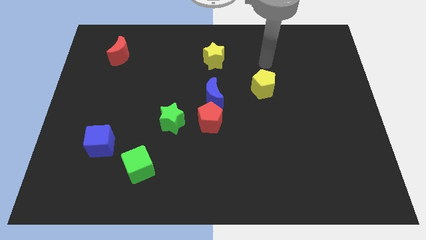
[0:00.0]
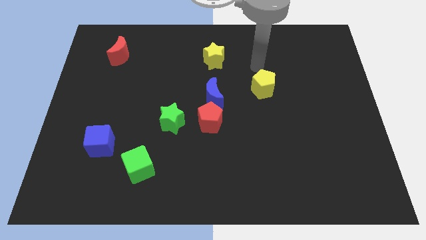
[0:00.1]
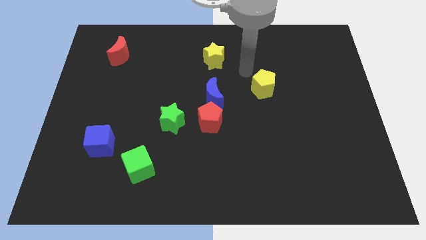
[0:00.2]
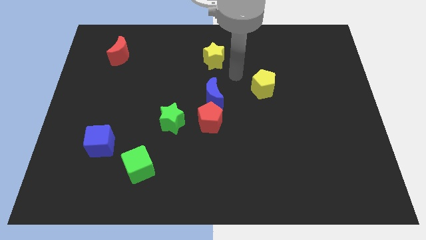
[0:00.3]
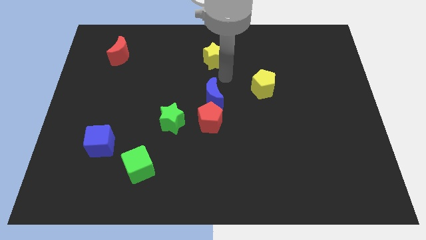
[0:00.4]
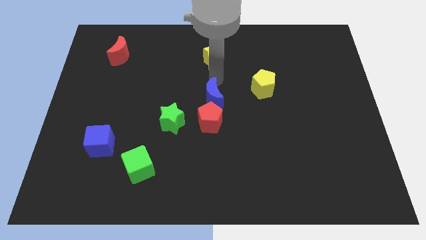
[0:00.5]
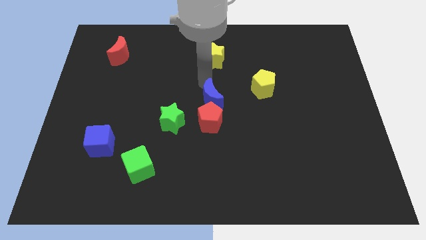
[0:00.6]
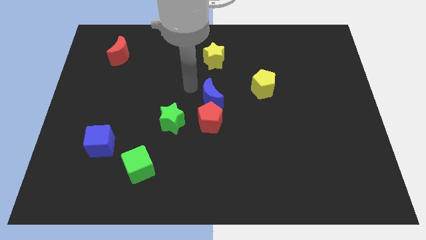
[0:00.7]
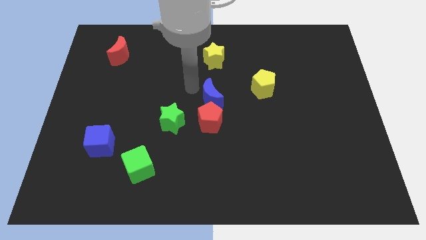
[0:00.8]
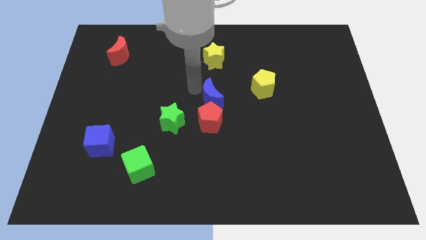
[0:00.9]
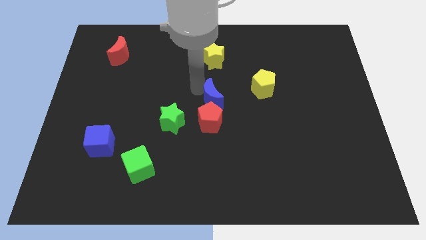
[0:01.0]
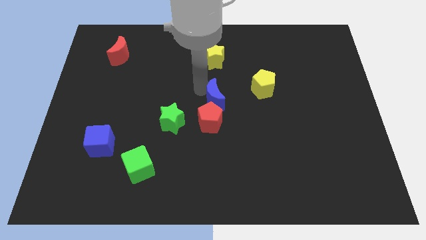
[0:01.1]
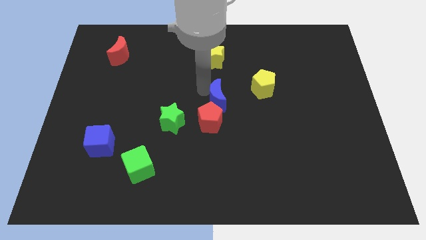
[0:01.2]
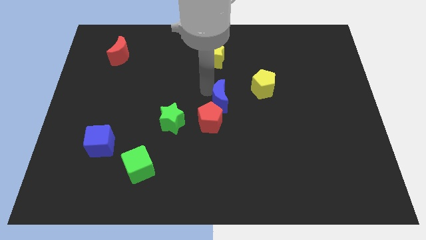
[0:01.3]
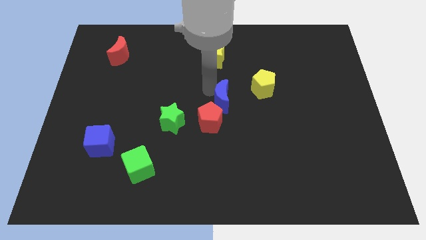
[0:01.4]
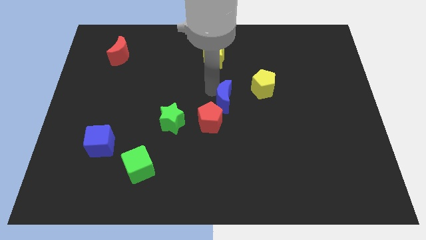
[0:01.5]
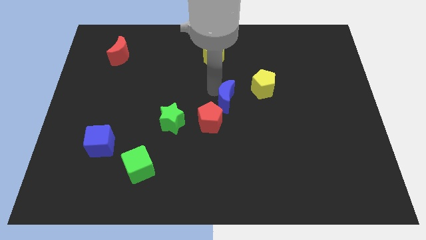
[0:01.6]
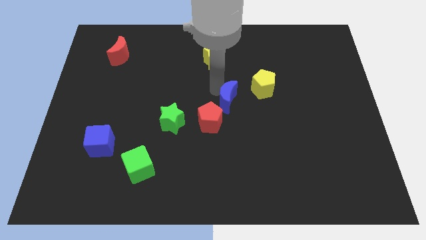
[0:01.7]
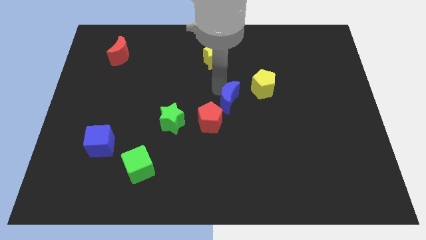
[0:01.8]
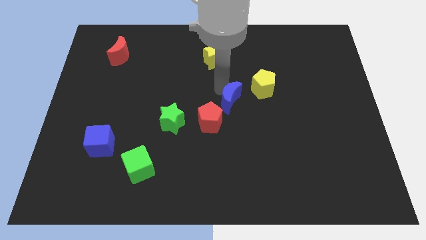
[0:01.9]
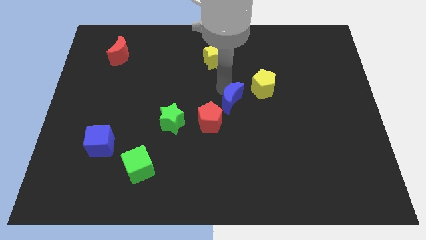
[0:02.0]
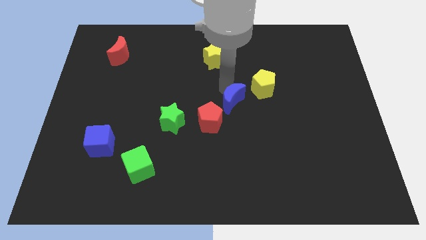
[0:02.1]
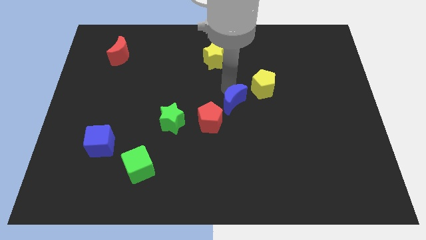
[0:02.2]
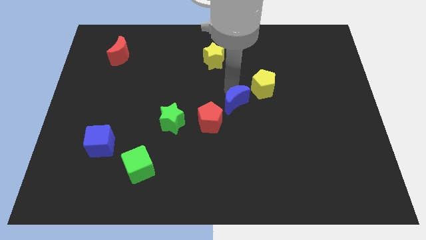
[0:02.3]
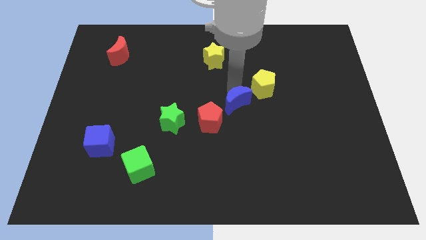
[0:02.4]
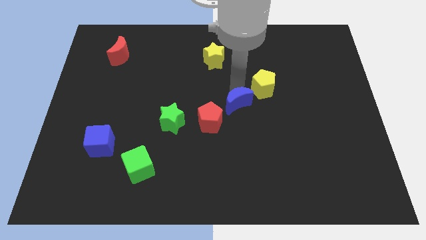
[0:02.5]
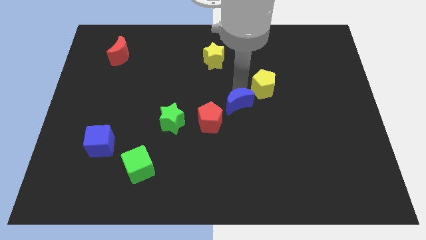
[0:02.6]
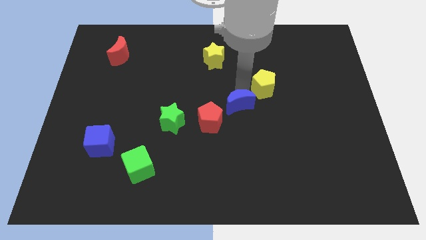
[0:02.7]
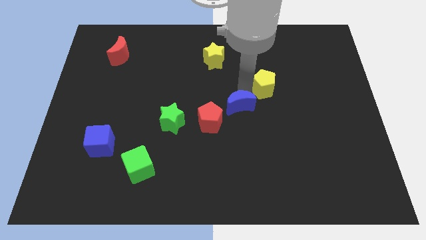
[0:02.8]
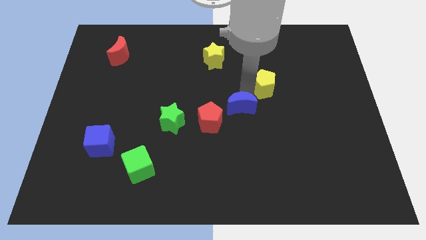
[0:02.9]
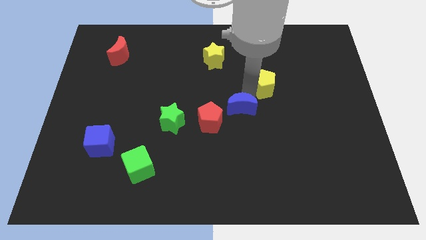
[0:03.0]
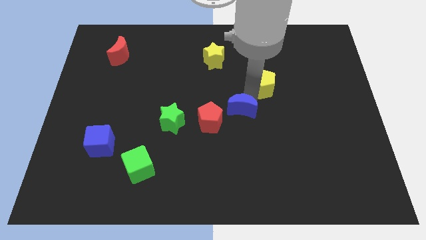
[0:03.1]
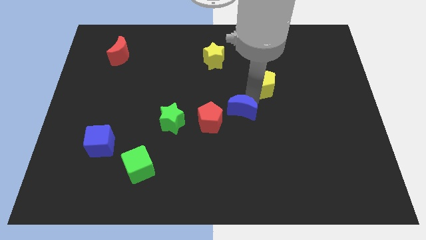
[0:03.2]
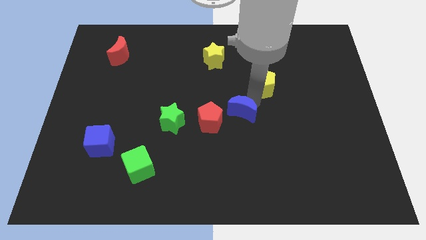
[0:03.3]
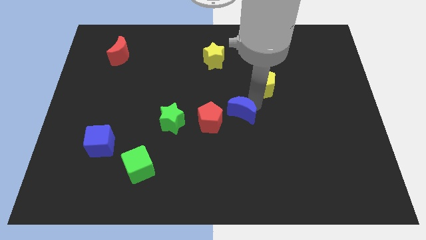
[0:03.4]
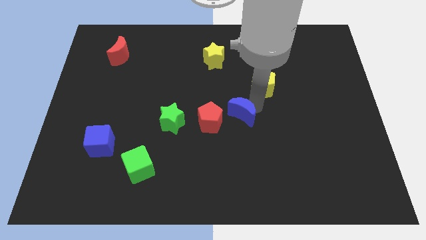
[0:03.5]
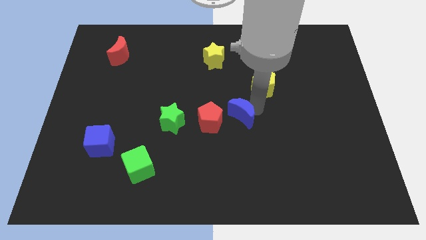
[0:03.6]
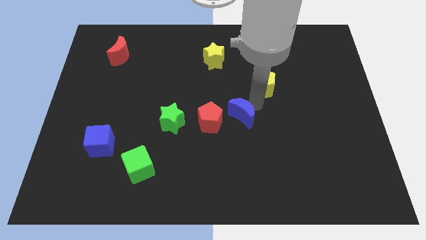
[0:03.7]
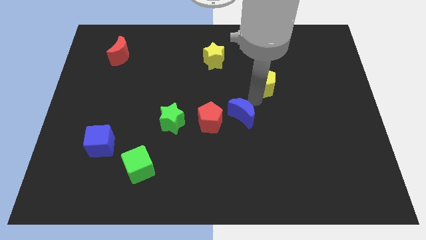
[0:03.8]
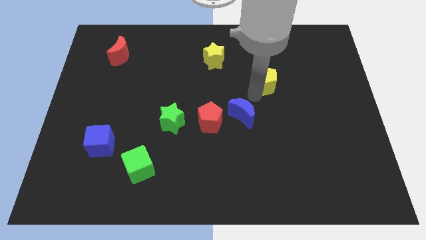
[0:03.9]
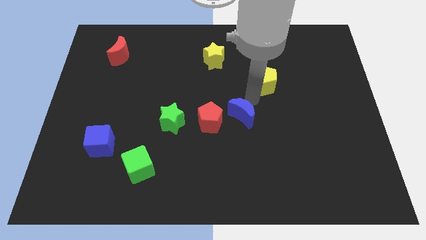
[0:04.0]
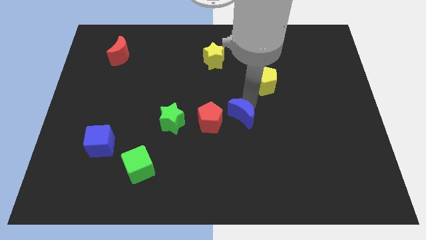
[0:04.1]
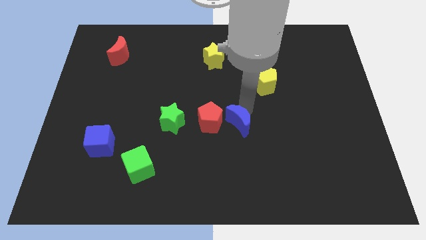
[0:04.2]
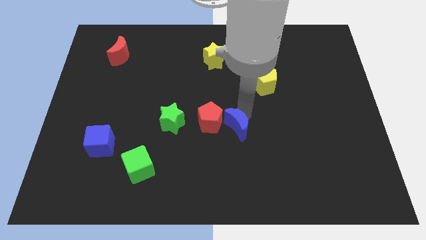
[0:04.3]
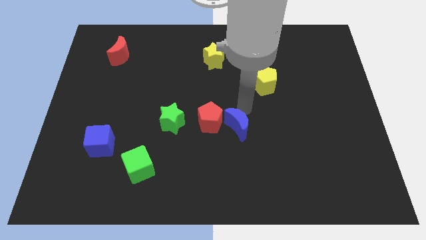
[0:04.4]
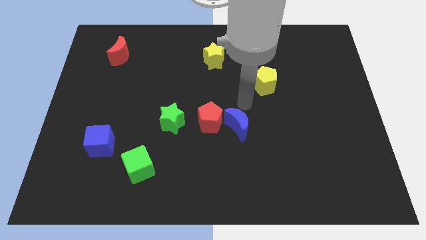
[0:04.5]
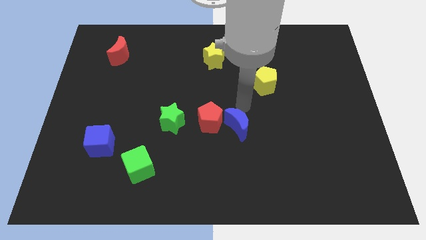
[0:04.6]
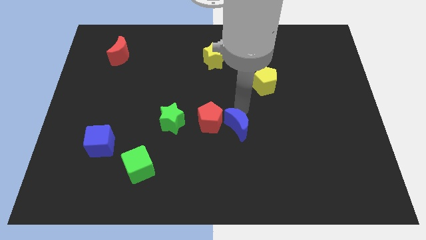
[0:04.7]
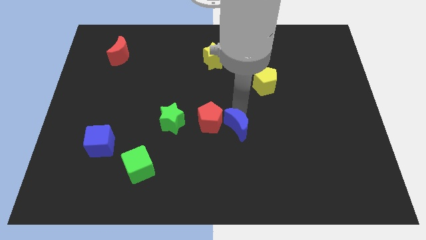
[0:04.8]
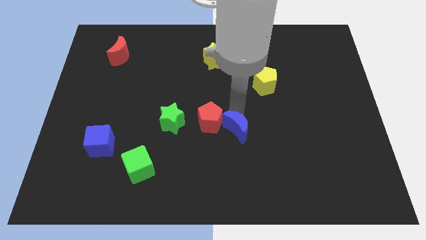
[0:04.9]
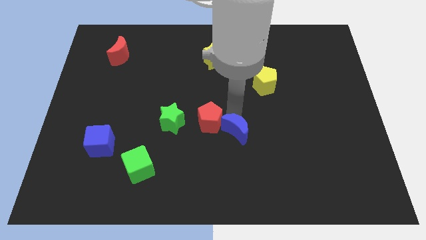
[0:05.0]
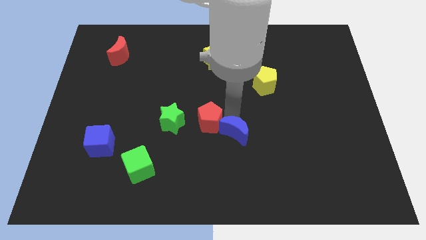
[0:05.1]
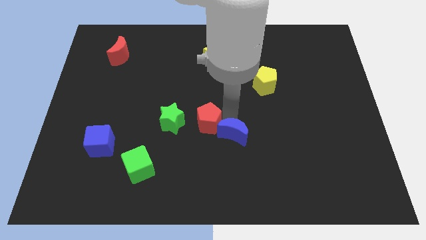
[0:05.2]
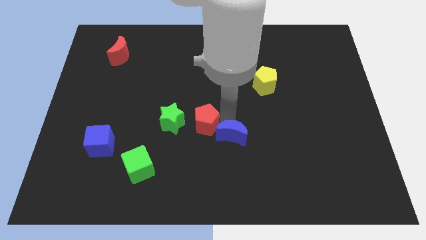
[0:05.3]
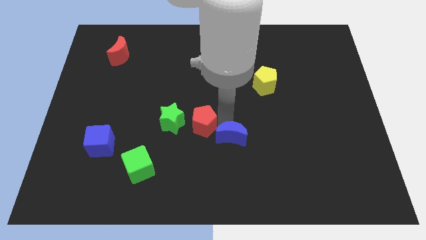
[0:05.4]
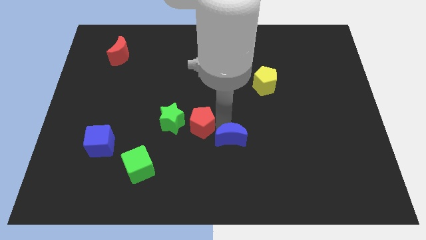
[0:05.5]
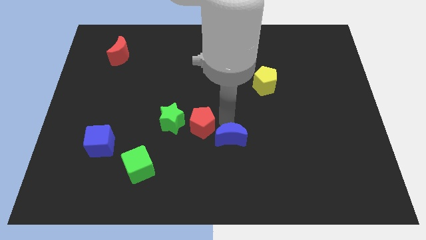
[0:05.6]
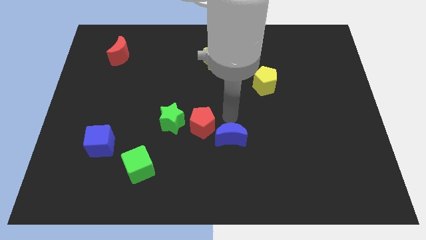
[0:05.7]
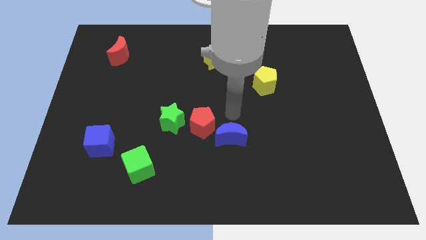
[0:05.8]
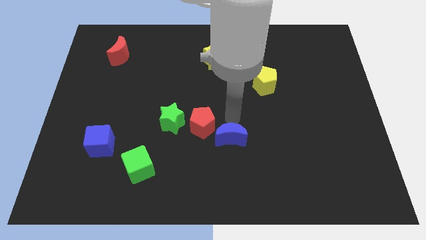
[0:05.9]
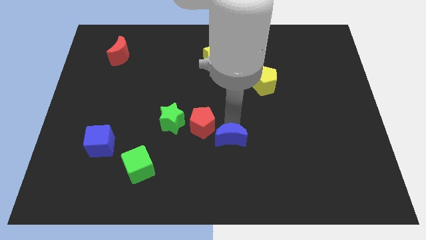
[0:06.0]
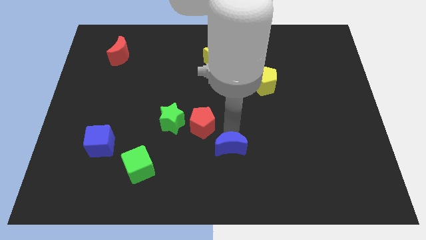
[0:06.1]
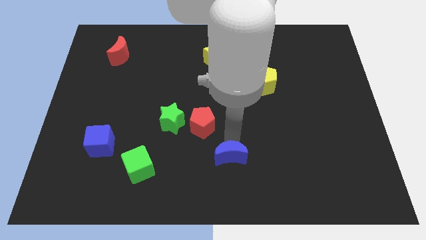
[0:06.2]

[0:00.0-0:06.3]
move the blue moon to the bottom side

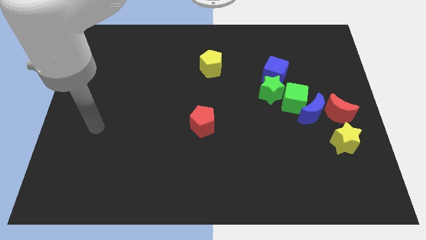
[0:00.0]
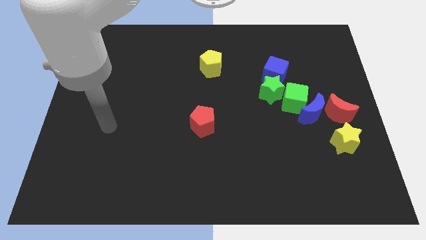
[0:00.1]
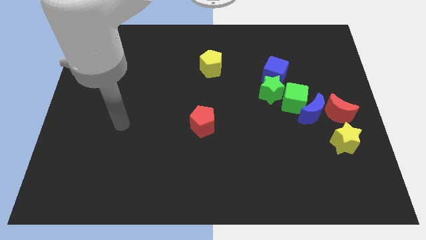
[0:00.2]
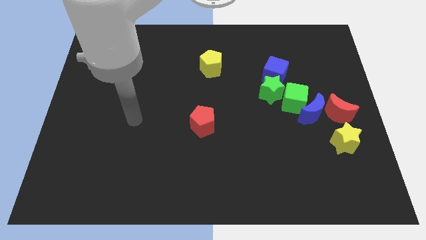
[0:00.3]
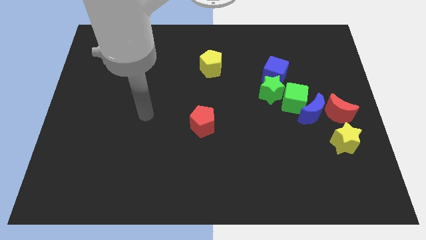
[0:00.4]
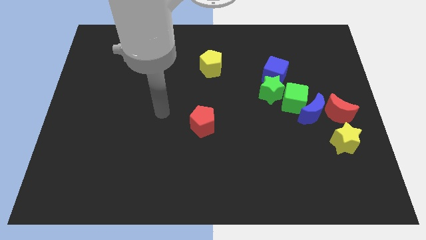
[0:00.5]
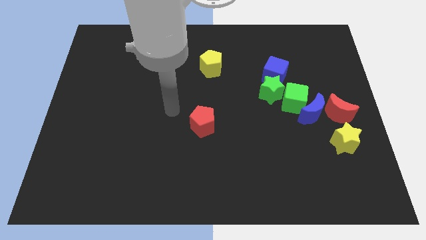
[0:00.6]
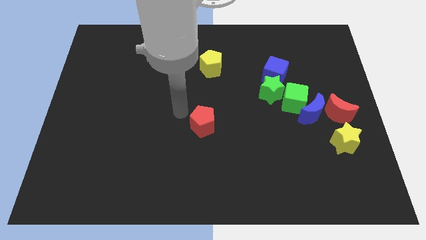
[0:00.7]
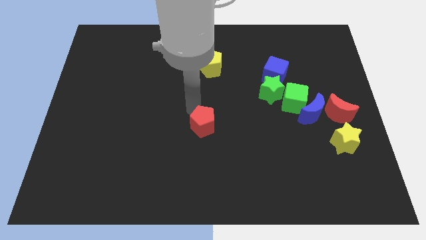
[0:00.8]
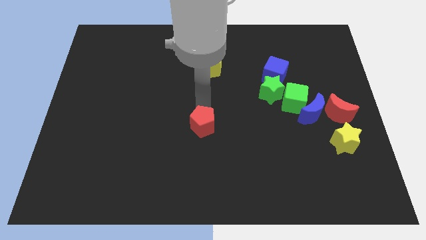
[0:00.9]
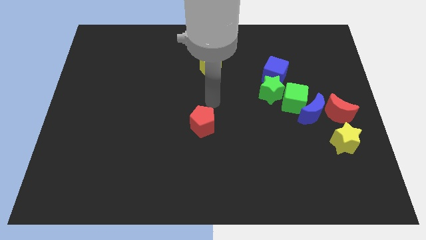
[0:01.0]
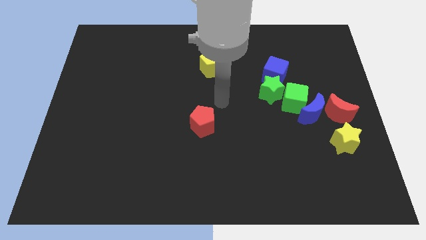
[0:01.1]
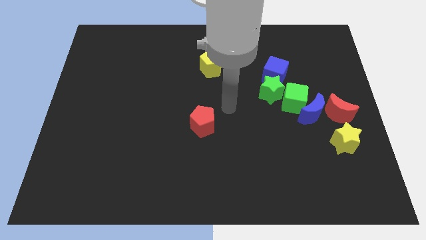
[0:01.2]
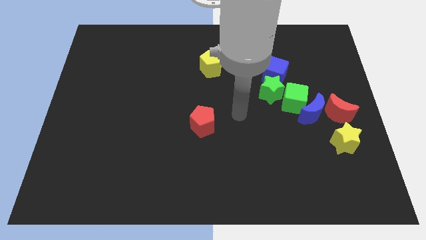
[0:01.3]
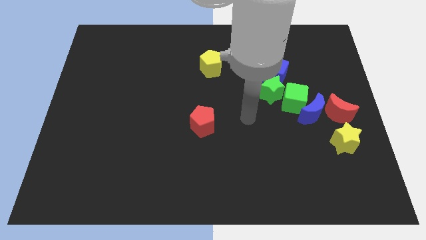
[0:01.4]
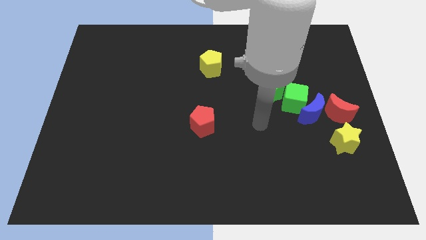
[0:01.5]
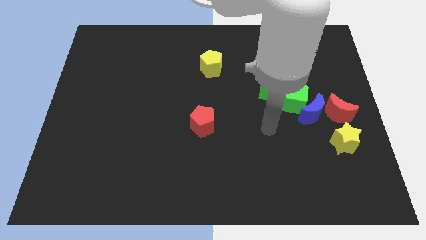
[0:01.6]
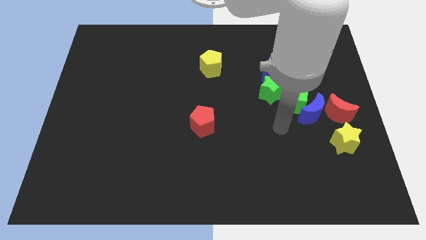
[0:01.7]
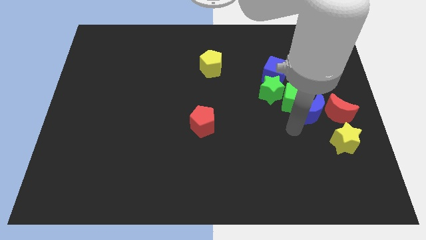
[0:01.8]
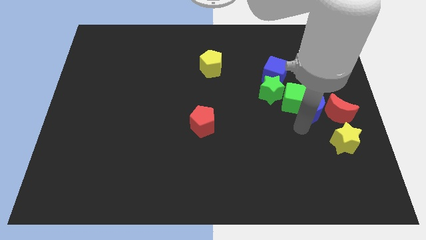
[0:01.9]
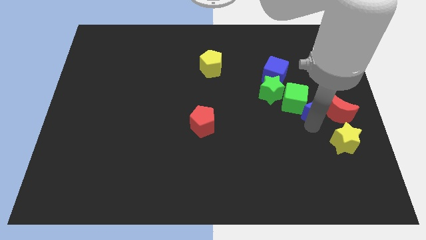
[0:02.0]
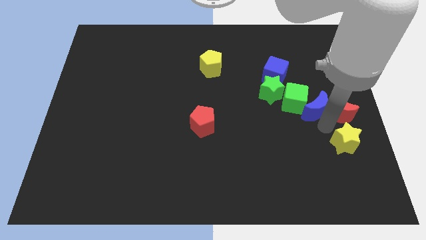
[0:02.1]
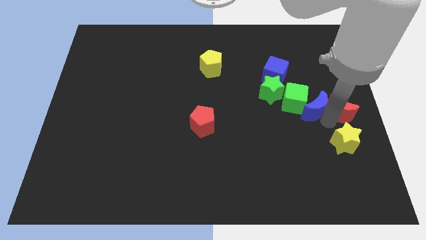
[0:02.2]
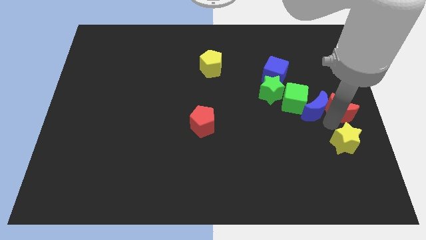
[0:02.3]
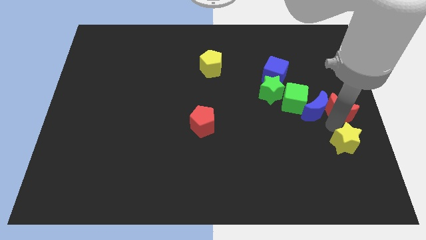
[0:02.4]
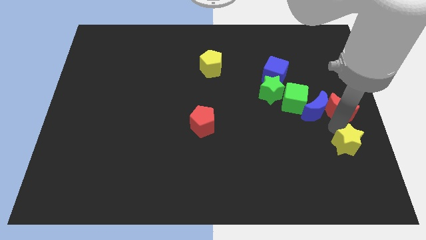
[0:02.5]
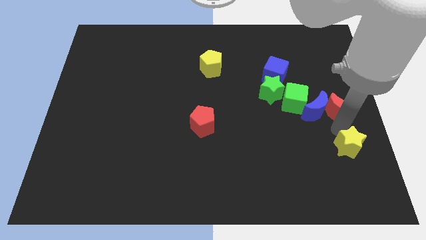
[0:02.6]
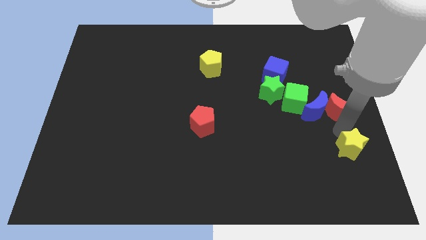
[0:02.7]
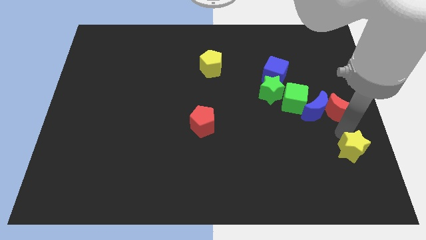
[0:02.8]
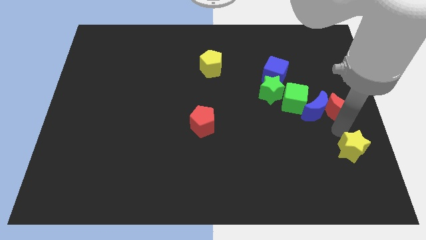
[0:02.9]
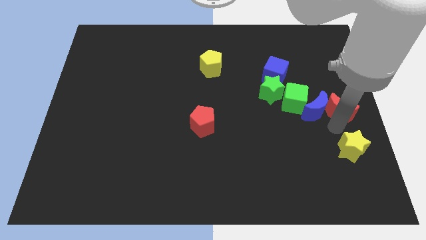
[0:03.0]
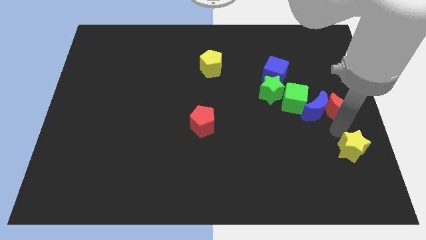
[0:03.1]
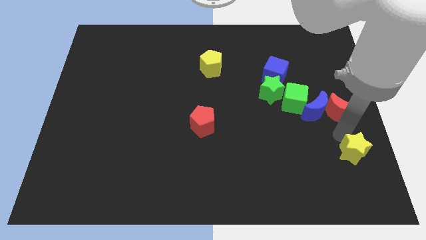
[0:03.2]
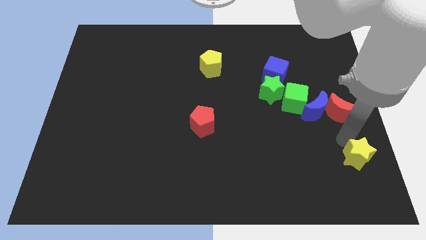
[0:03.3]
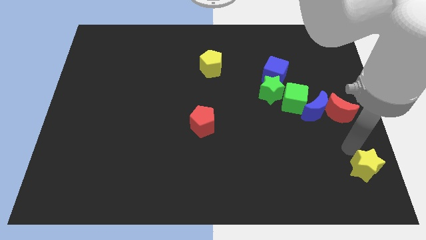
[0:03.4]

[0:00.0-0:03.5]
put the yellow star to the bottom right
